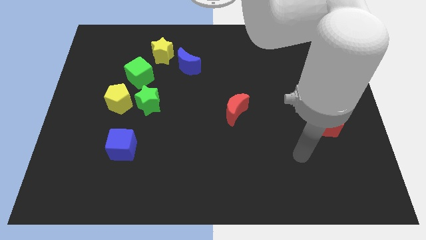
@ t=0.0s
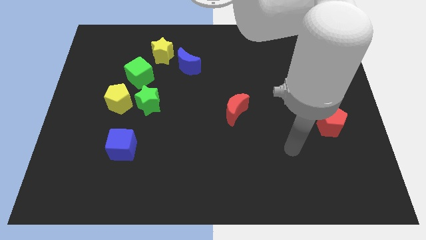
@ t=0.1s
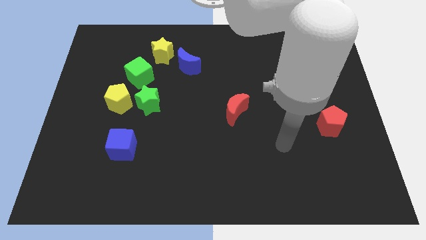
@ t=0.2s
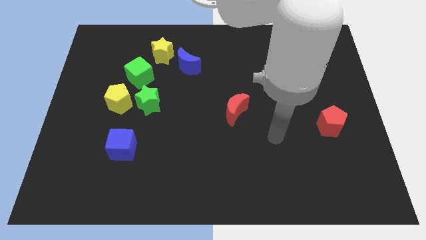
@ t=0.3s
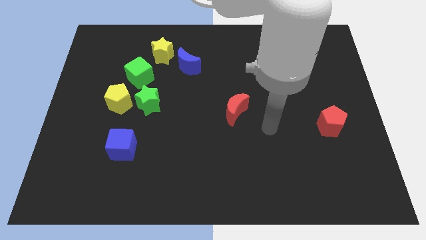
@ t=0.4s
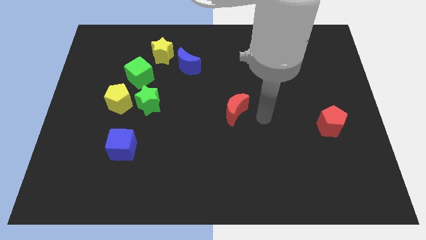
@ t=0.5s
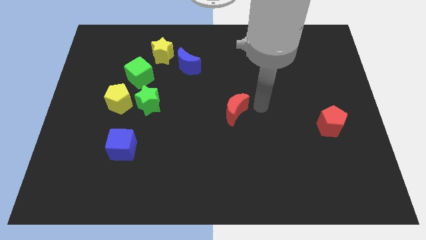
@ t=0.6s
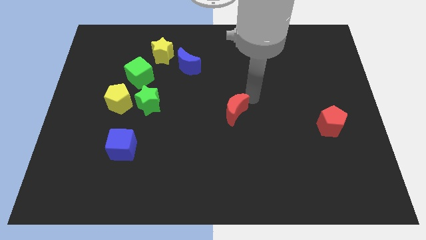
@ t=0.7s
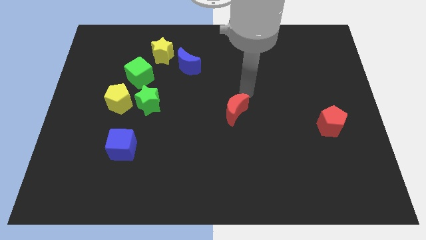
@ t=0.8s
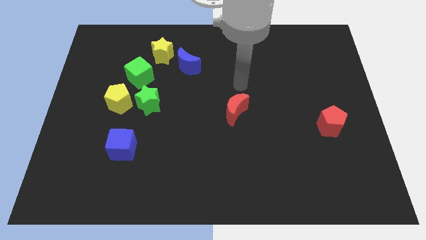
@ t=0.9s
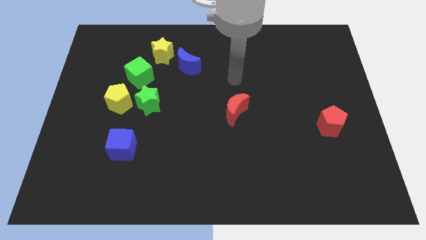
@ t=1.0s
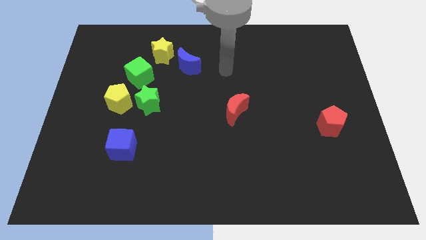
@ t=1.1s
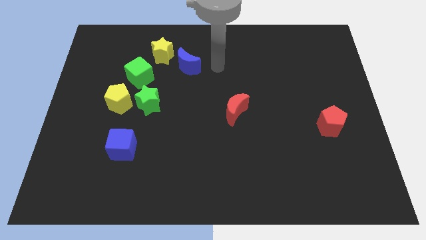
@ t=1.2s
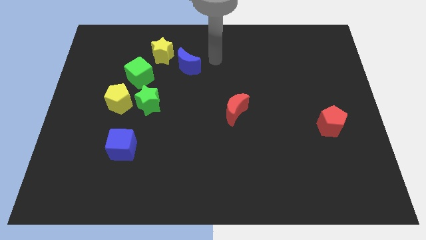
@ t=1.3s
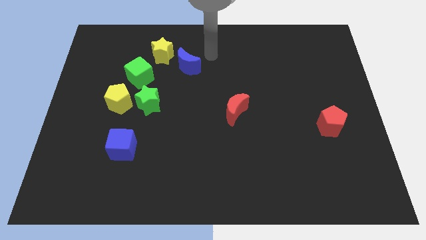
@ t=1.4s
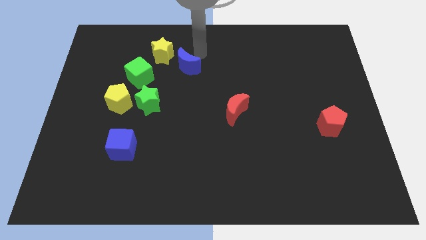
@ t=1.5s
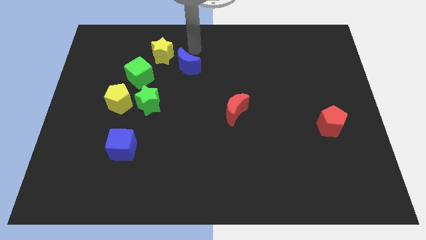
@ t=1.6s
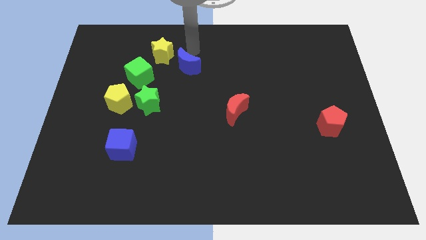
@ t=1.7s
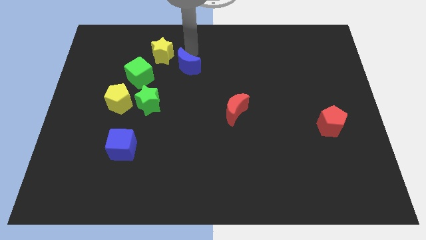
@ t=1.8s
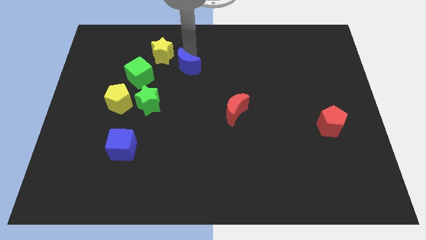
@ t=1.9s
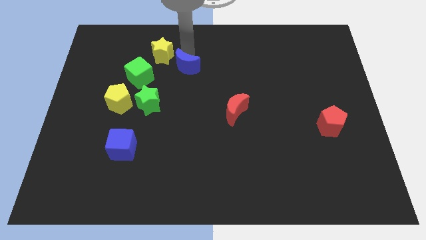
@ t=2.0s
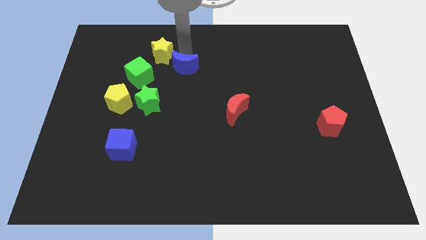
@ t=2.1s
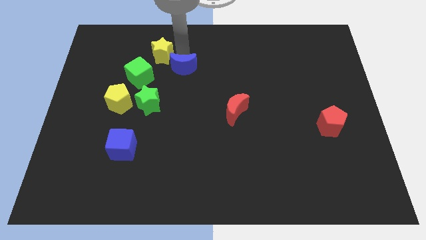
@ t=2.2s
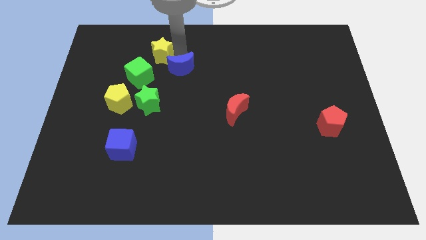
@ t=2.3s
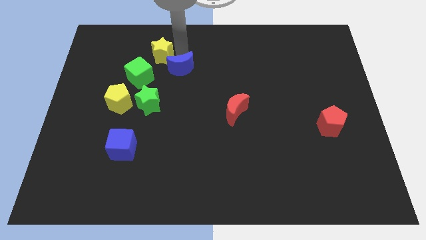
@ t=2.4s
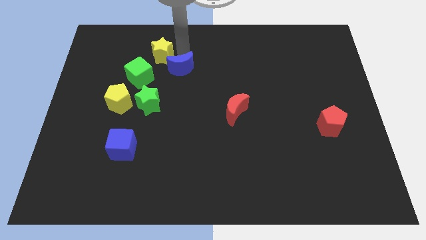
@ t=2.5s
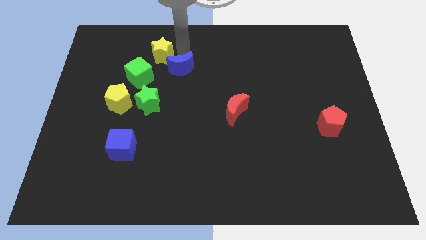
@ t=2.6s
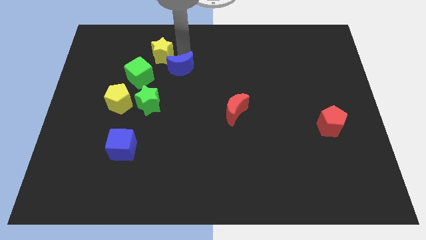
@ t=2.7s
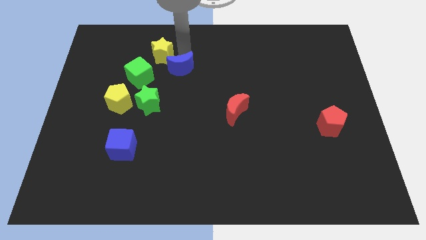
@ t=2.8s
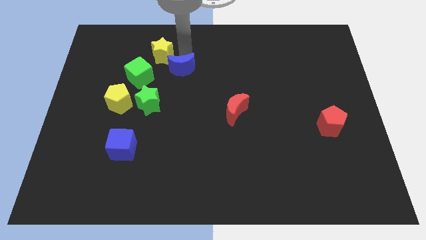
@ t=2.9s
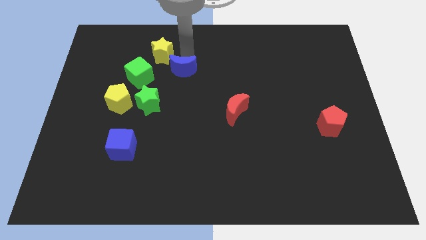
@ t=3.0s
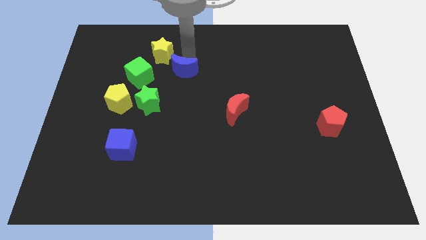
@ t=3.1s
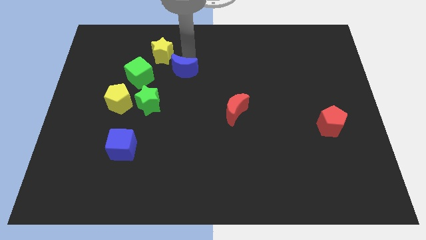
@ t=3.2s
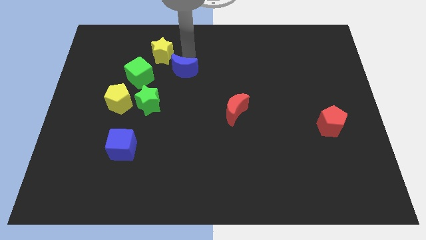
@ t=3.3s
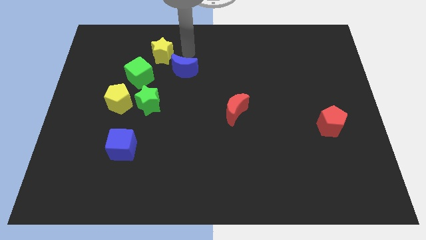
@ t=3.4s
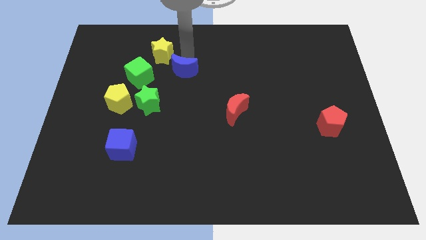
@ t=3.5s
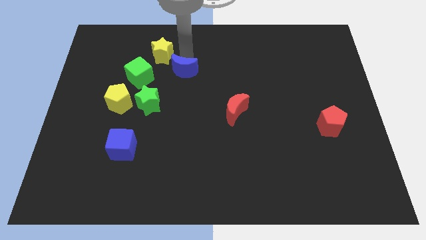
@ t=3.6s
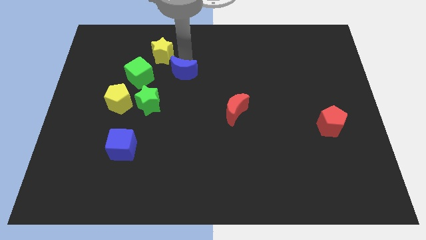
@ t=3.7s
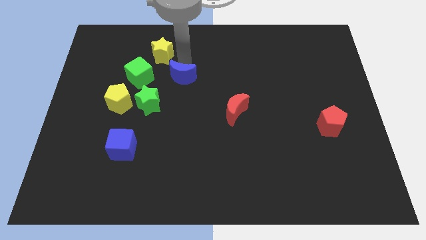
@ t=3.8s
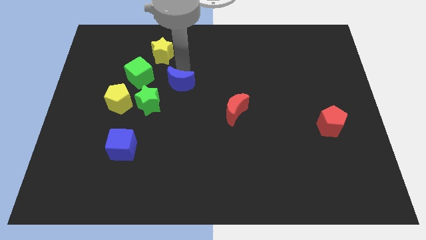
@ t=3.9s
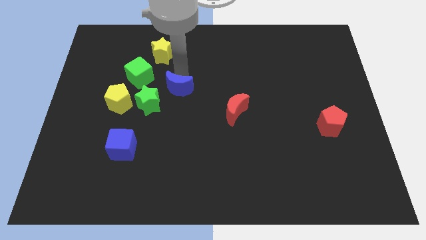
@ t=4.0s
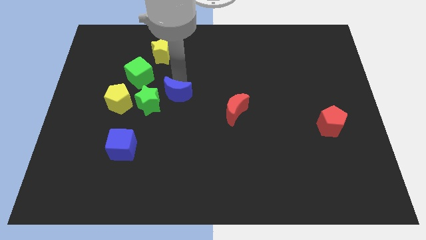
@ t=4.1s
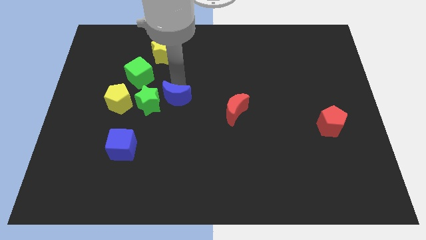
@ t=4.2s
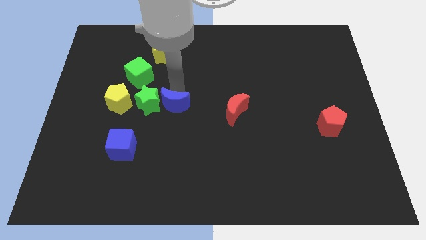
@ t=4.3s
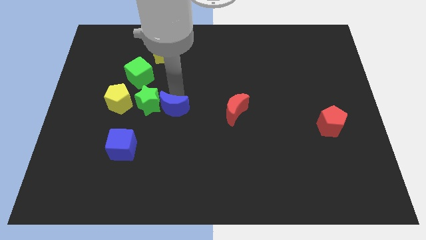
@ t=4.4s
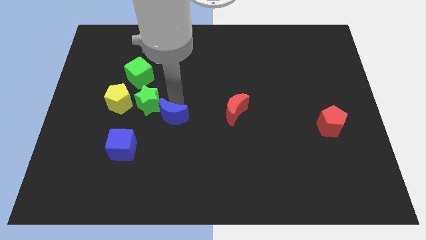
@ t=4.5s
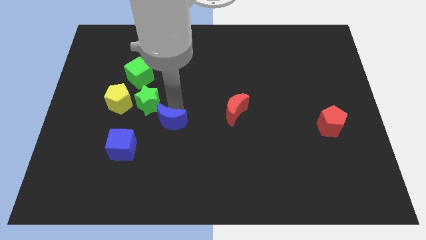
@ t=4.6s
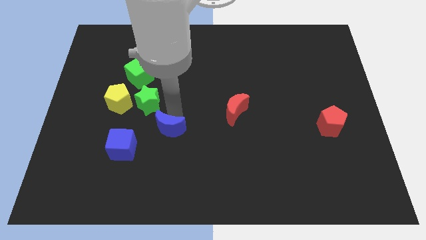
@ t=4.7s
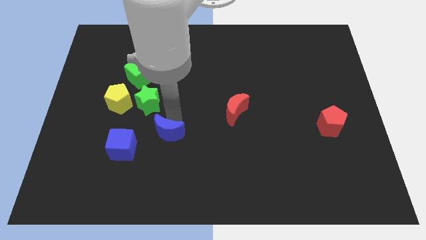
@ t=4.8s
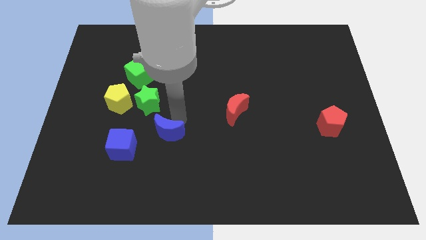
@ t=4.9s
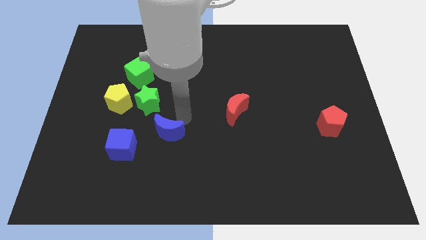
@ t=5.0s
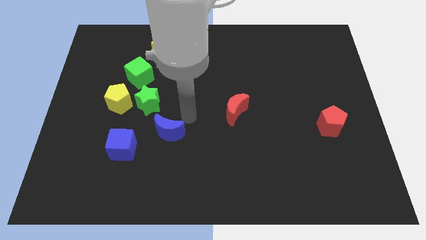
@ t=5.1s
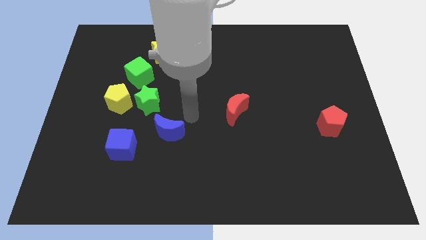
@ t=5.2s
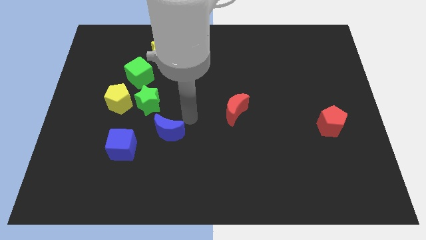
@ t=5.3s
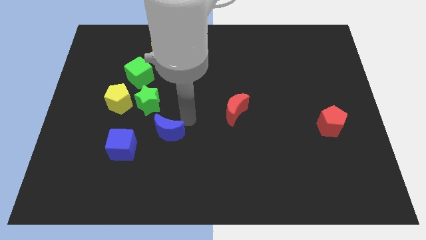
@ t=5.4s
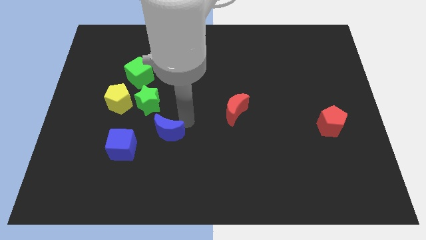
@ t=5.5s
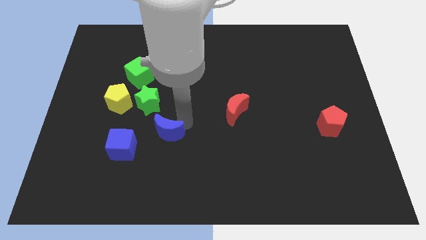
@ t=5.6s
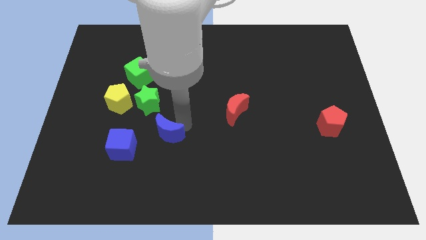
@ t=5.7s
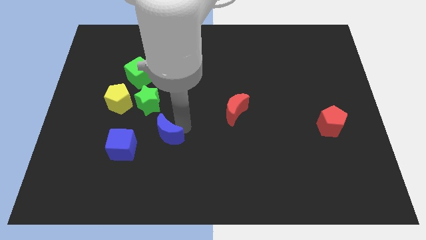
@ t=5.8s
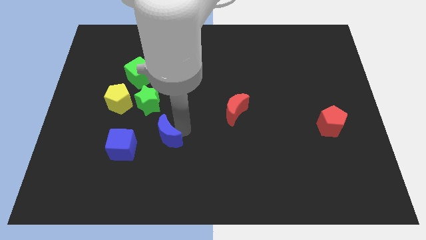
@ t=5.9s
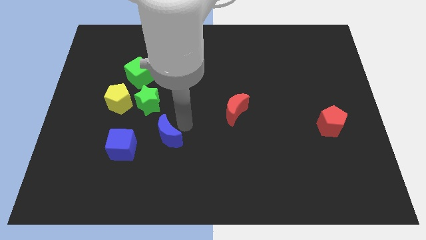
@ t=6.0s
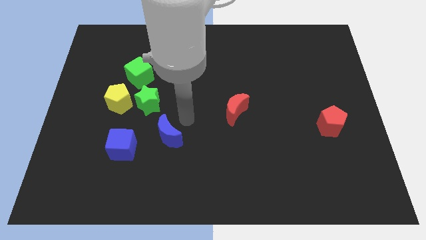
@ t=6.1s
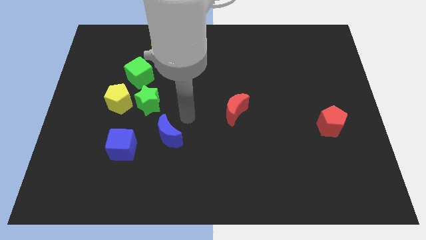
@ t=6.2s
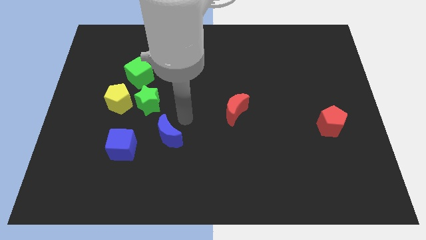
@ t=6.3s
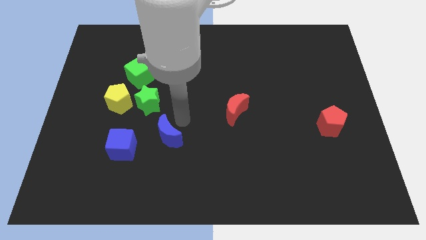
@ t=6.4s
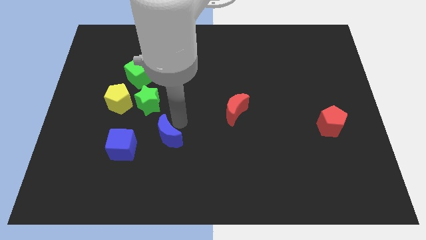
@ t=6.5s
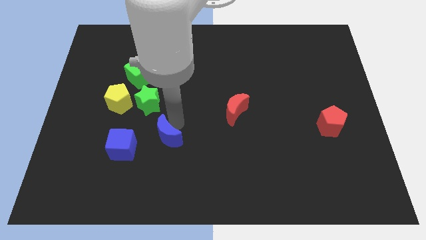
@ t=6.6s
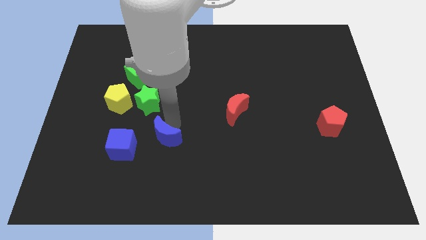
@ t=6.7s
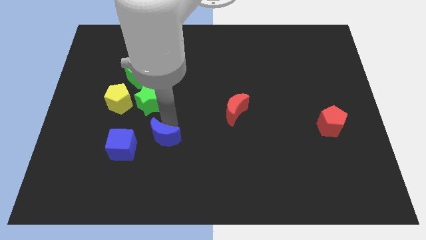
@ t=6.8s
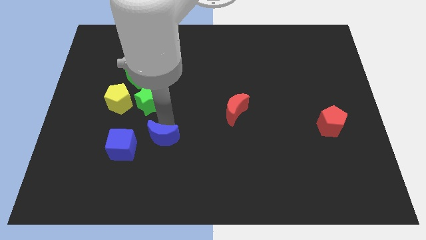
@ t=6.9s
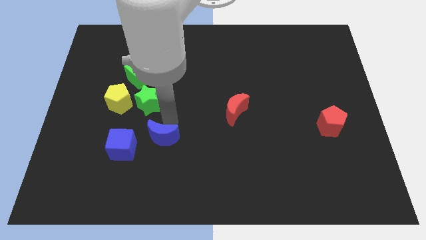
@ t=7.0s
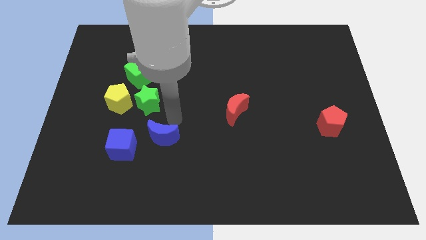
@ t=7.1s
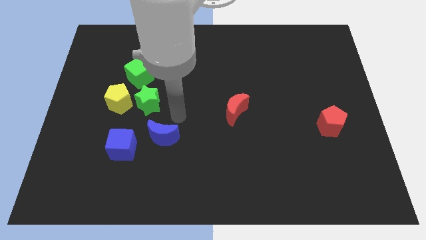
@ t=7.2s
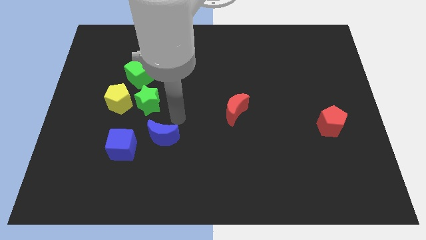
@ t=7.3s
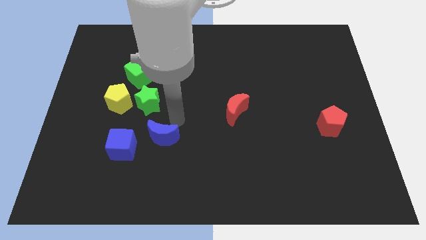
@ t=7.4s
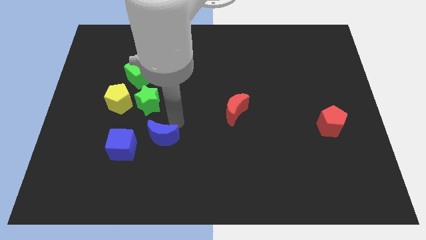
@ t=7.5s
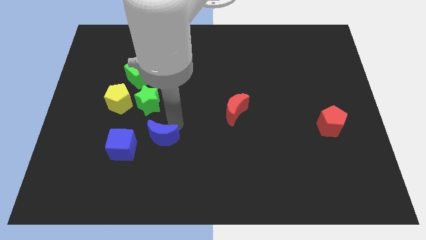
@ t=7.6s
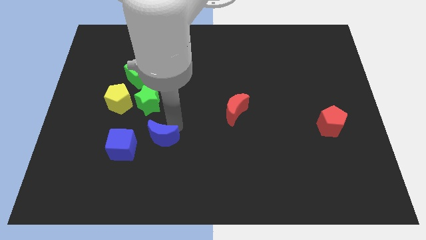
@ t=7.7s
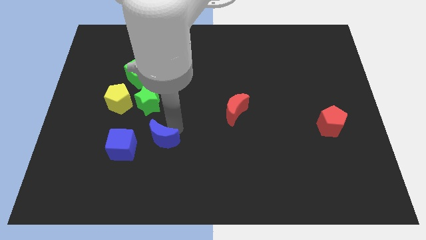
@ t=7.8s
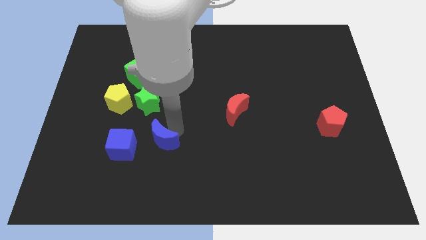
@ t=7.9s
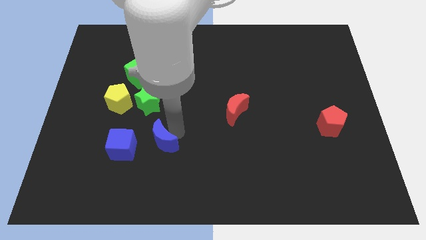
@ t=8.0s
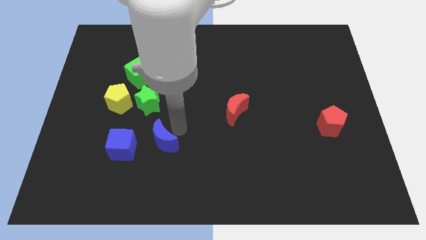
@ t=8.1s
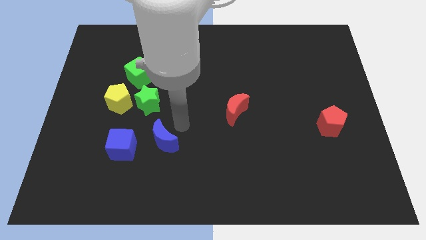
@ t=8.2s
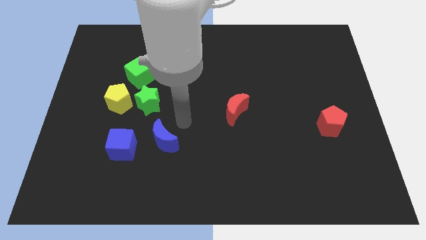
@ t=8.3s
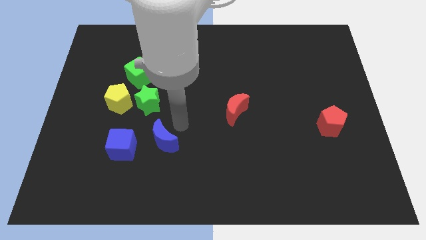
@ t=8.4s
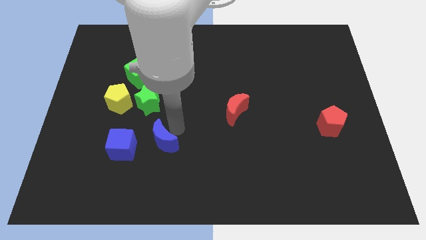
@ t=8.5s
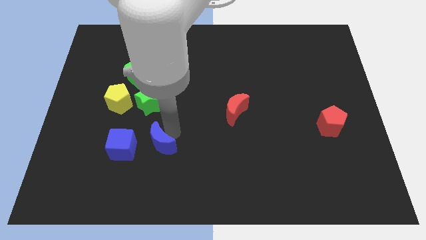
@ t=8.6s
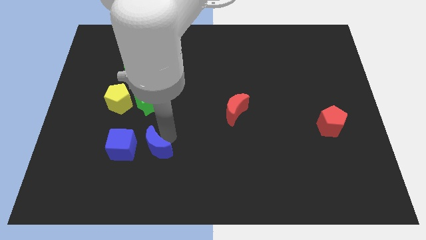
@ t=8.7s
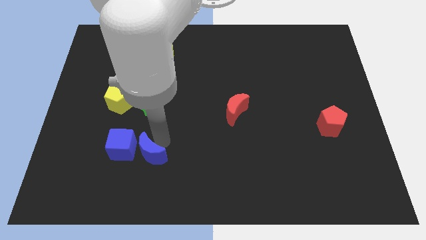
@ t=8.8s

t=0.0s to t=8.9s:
put the blue moon to the bottom right side of the blue cube
